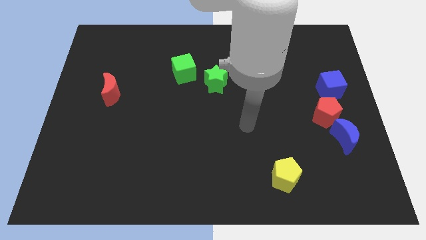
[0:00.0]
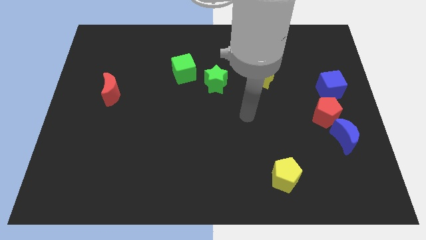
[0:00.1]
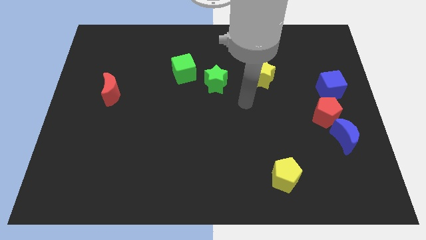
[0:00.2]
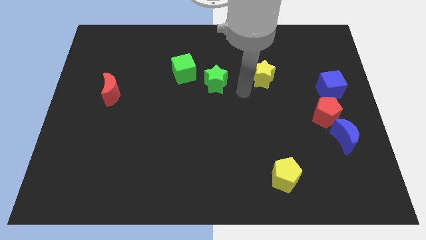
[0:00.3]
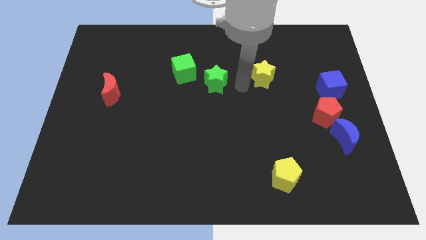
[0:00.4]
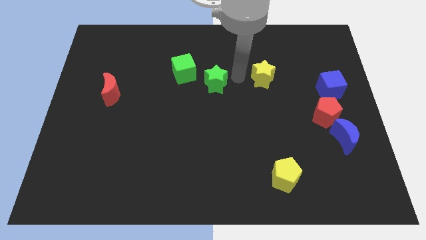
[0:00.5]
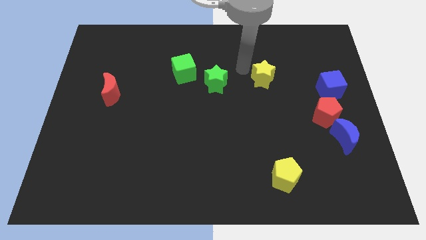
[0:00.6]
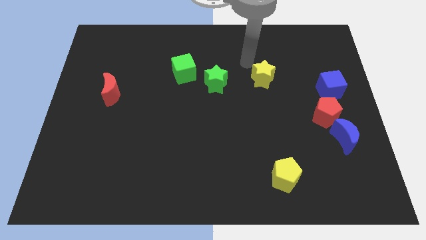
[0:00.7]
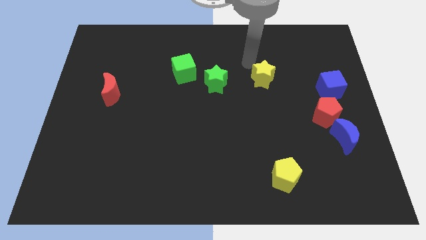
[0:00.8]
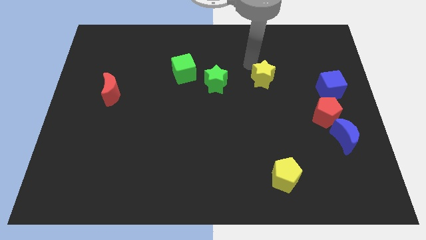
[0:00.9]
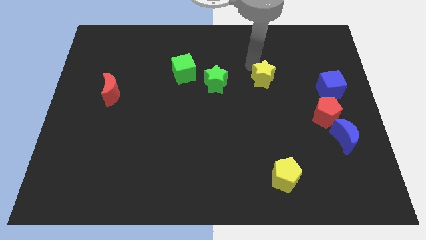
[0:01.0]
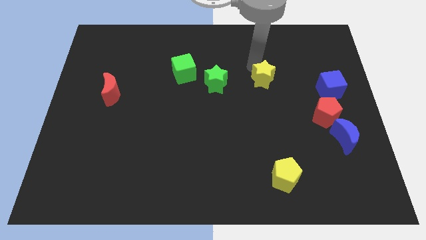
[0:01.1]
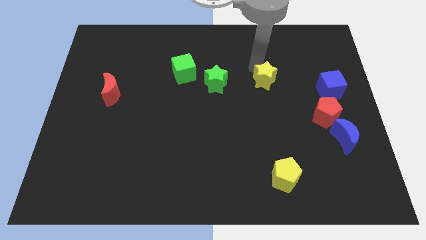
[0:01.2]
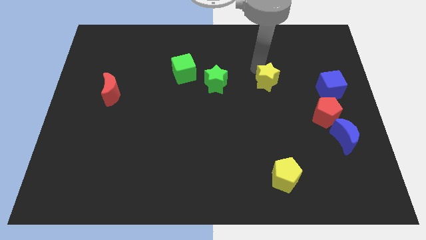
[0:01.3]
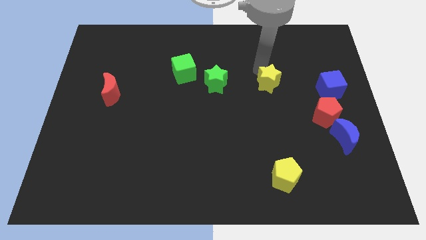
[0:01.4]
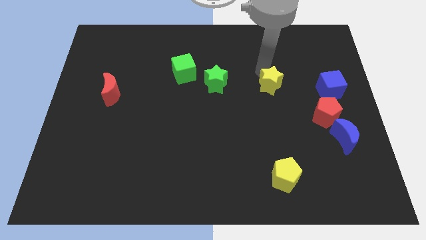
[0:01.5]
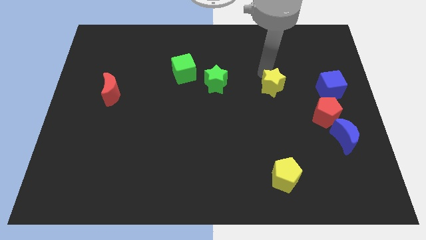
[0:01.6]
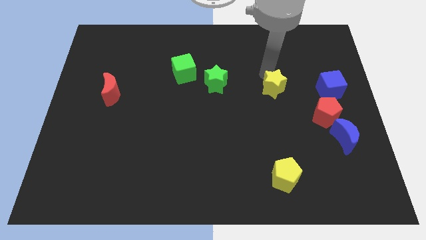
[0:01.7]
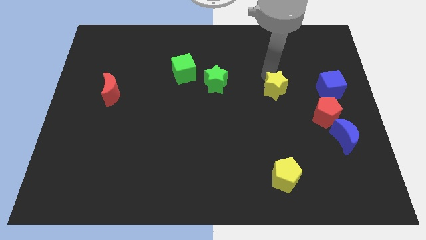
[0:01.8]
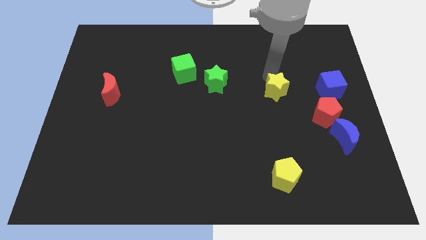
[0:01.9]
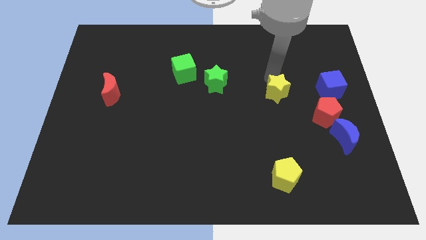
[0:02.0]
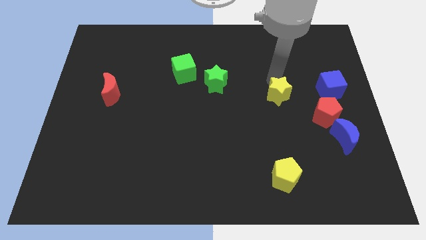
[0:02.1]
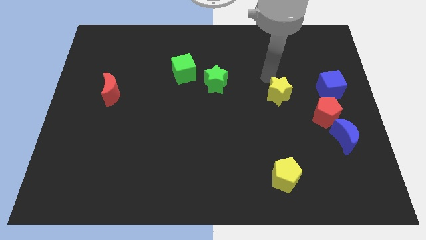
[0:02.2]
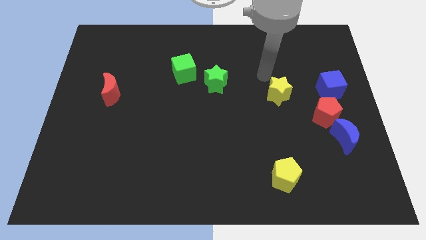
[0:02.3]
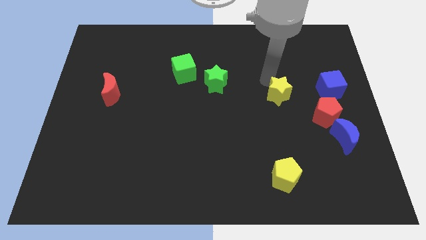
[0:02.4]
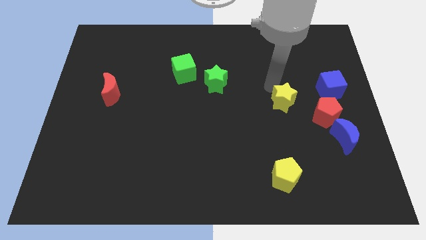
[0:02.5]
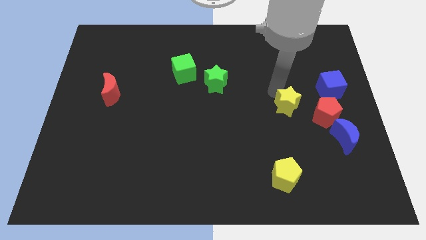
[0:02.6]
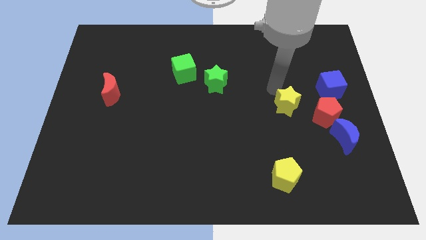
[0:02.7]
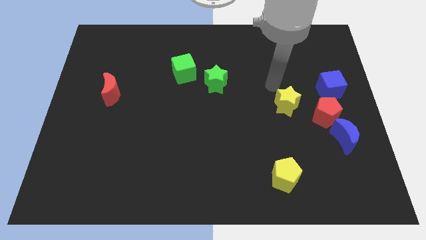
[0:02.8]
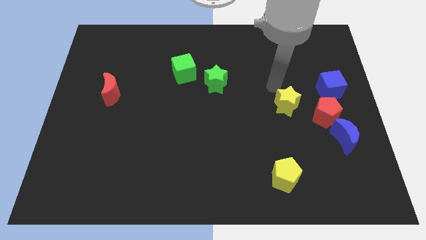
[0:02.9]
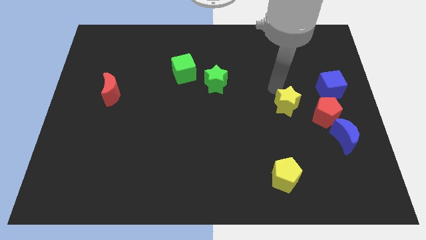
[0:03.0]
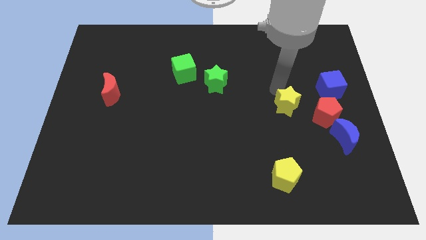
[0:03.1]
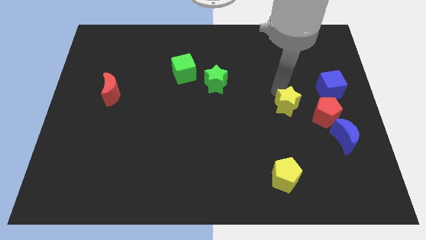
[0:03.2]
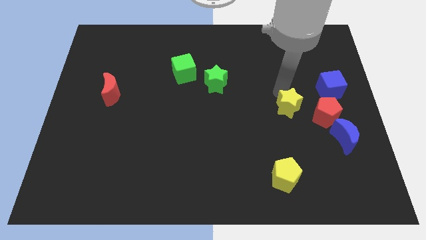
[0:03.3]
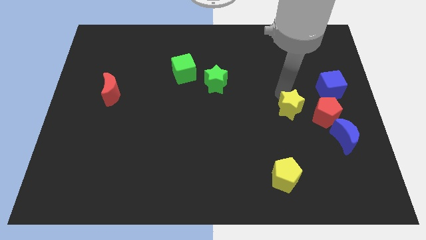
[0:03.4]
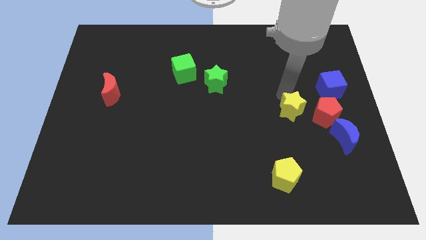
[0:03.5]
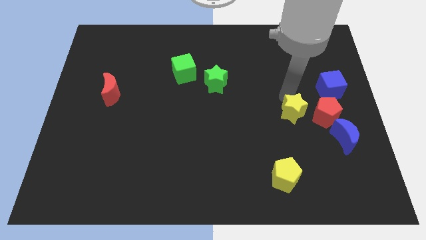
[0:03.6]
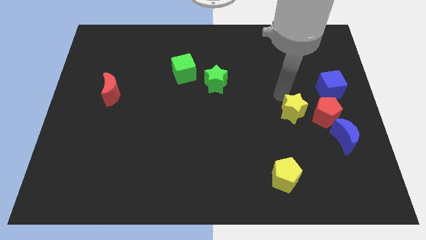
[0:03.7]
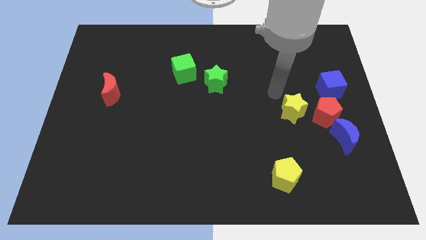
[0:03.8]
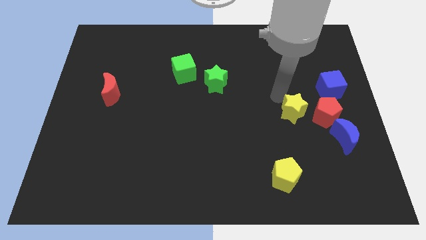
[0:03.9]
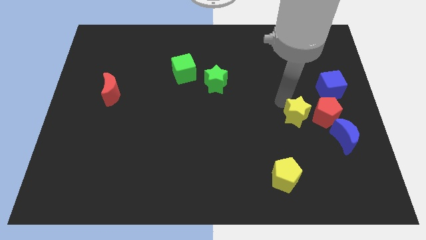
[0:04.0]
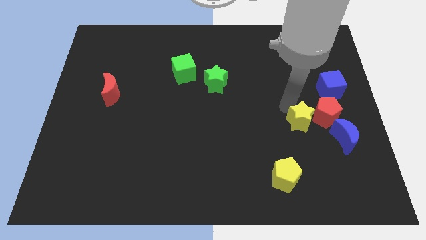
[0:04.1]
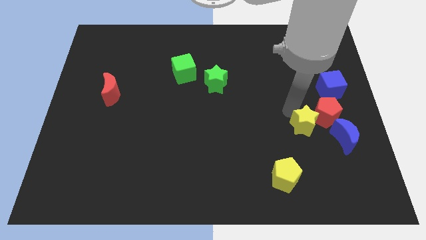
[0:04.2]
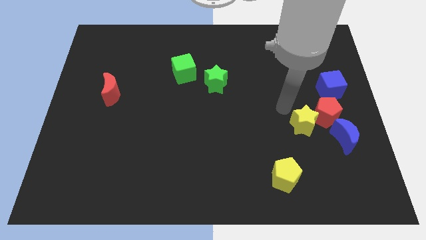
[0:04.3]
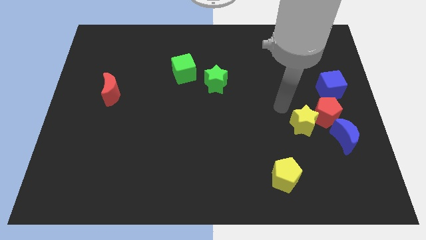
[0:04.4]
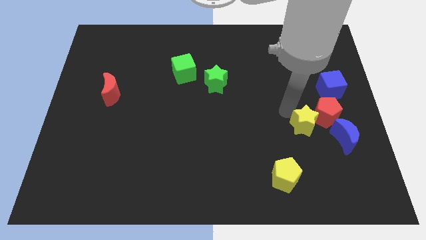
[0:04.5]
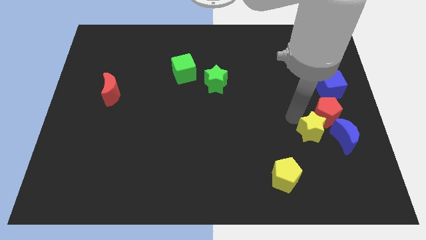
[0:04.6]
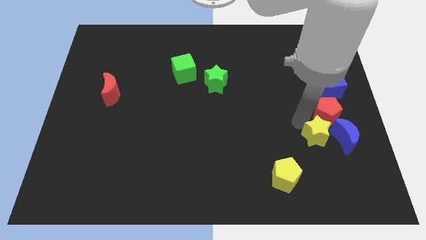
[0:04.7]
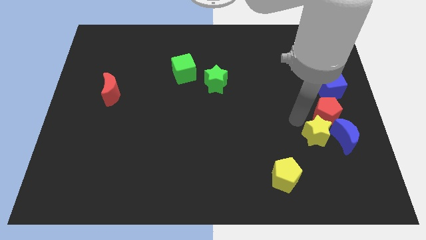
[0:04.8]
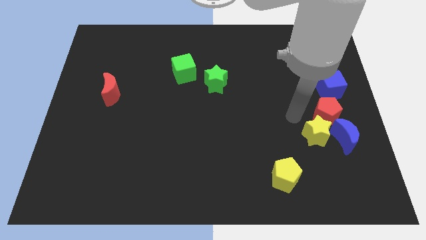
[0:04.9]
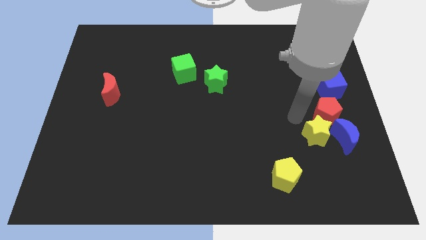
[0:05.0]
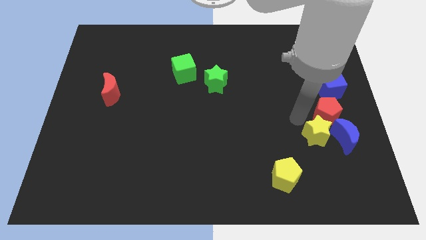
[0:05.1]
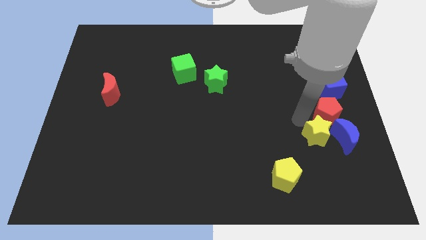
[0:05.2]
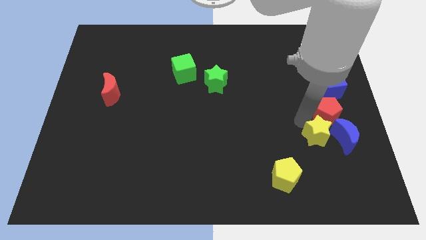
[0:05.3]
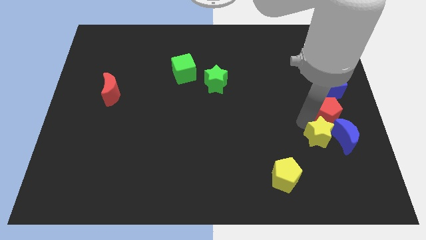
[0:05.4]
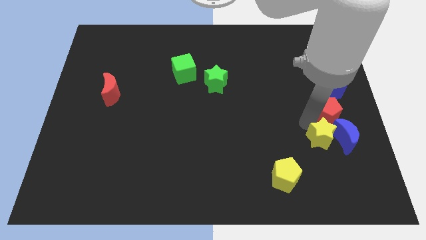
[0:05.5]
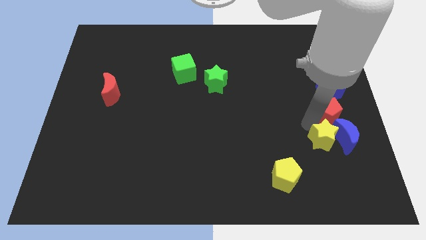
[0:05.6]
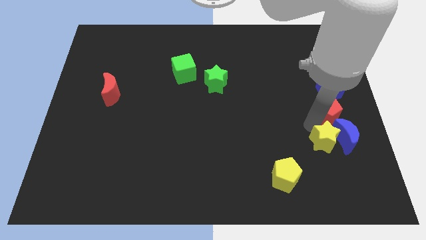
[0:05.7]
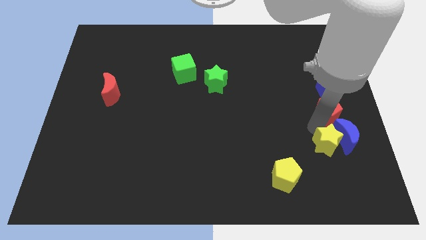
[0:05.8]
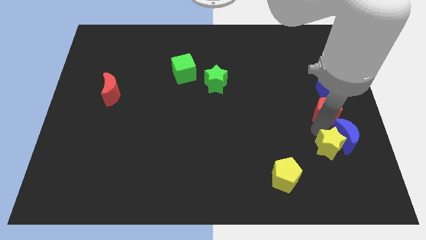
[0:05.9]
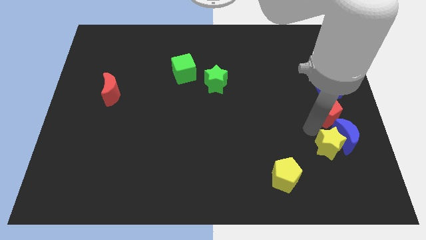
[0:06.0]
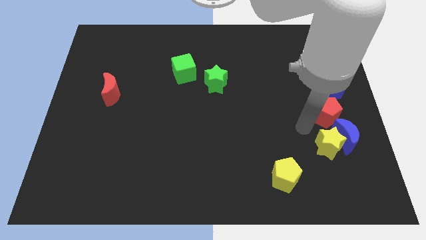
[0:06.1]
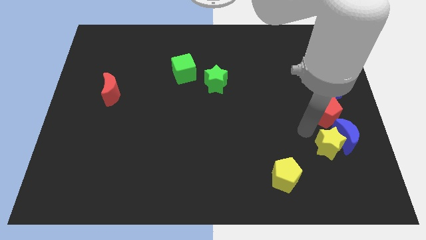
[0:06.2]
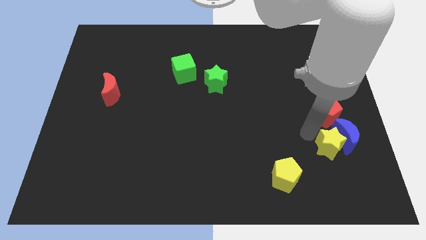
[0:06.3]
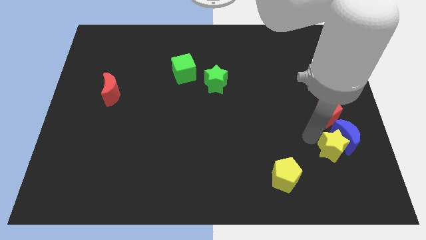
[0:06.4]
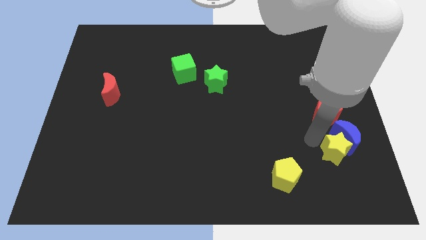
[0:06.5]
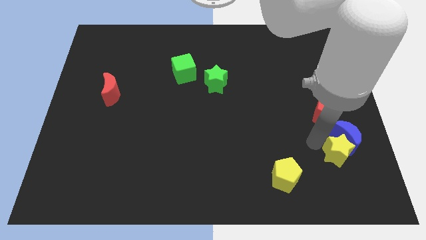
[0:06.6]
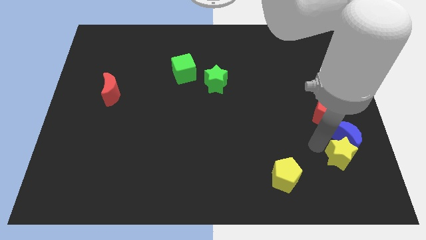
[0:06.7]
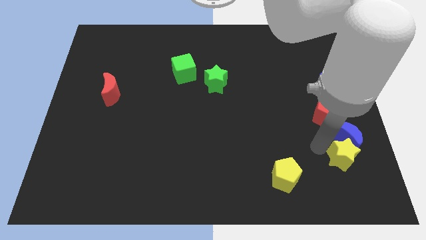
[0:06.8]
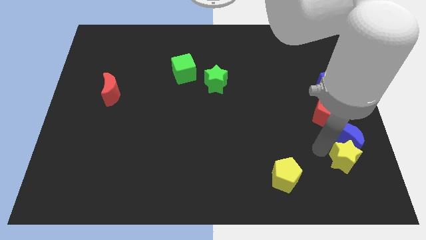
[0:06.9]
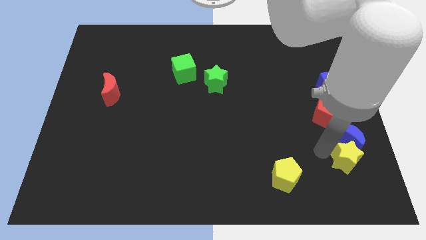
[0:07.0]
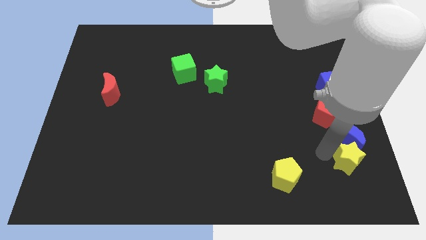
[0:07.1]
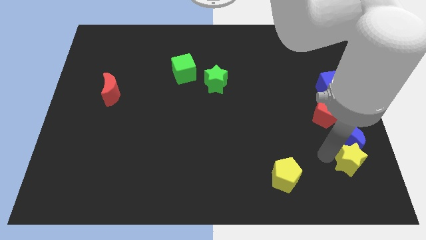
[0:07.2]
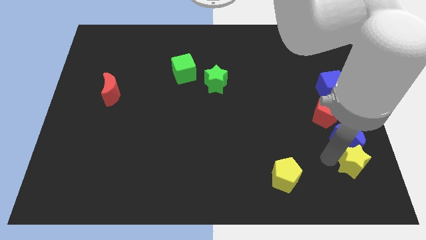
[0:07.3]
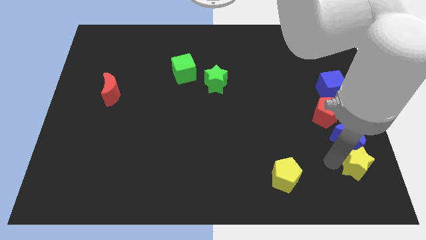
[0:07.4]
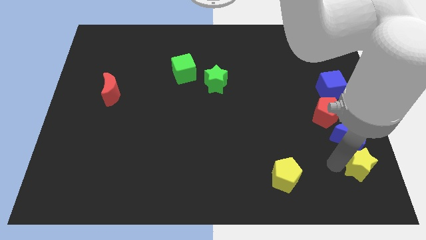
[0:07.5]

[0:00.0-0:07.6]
put the yellow star to the bottom right corner
